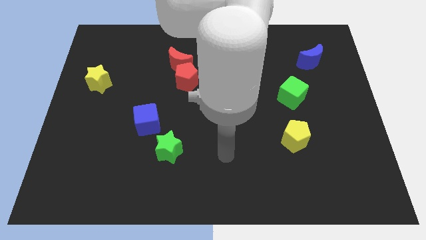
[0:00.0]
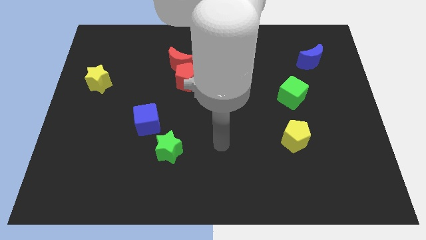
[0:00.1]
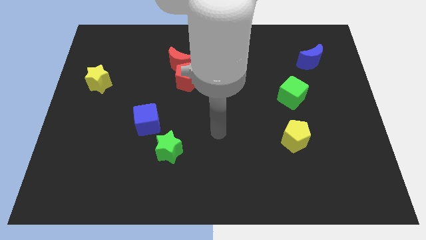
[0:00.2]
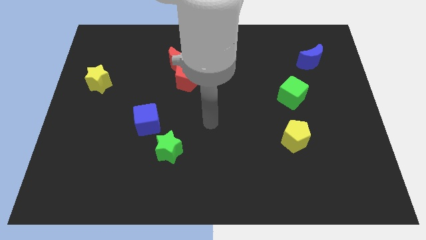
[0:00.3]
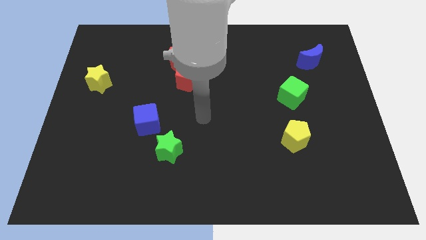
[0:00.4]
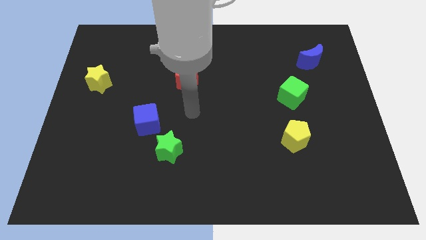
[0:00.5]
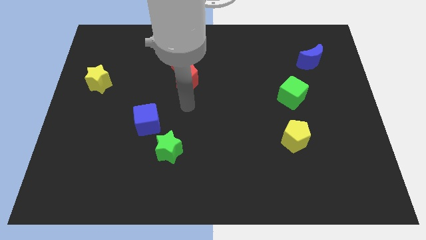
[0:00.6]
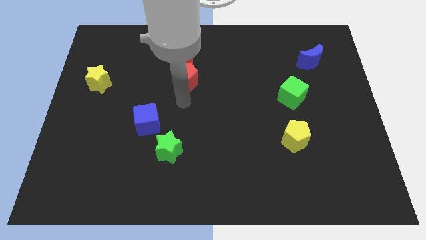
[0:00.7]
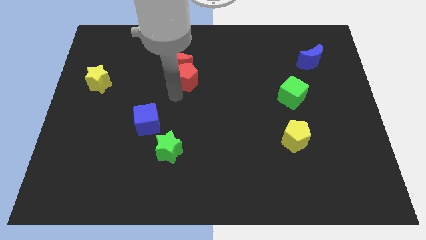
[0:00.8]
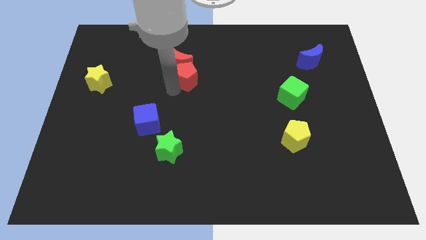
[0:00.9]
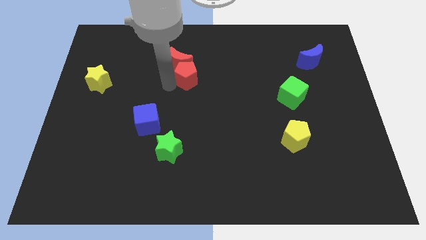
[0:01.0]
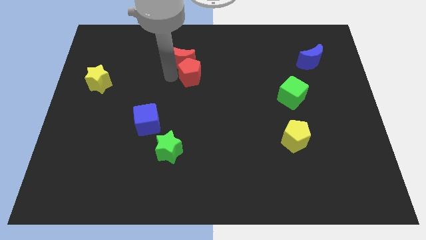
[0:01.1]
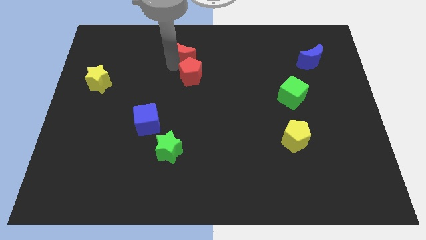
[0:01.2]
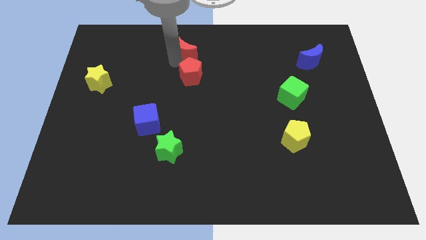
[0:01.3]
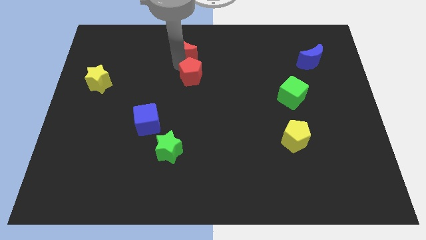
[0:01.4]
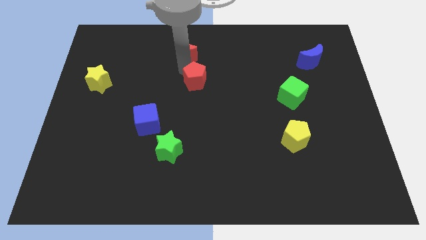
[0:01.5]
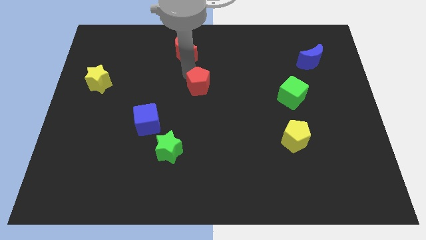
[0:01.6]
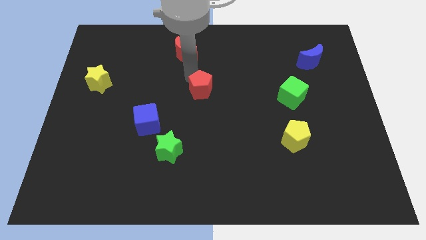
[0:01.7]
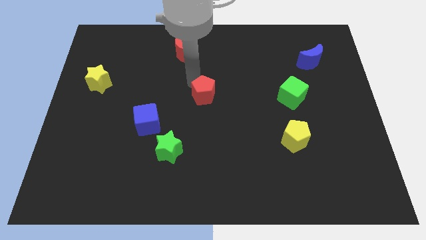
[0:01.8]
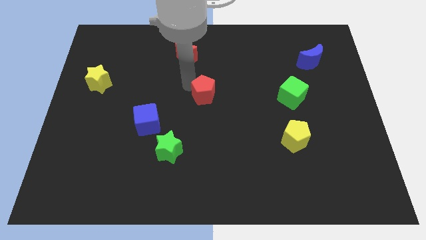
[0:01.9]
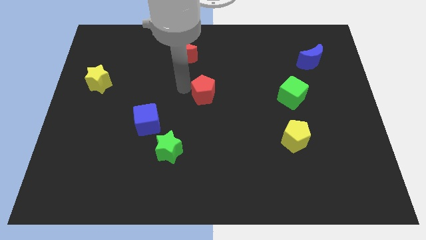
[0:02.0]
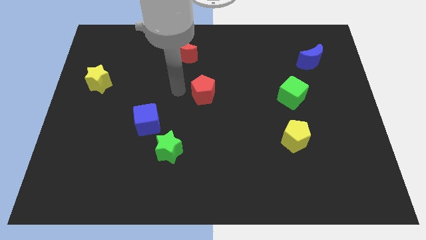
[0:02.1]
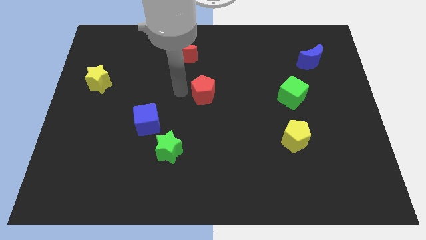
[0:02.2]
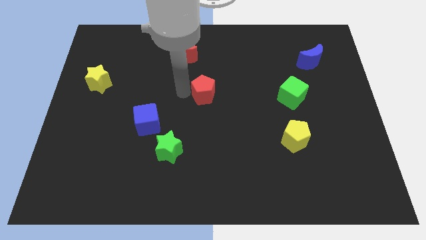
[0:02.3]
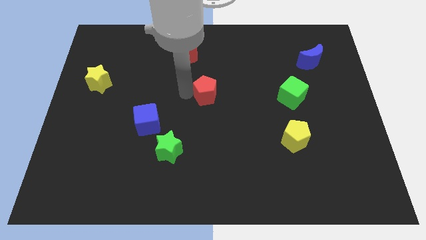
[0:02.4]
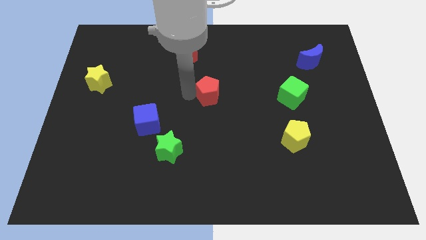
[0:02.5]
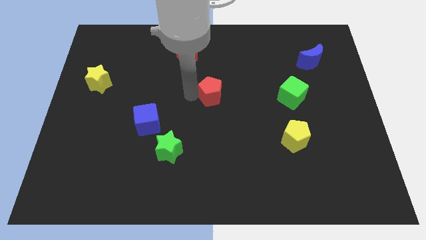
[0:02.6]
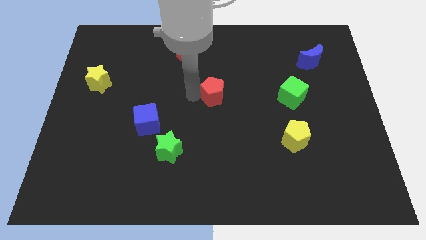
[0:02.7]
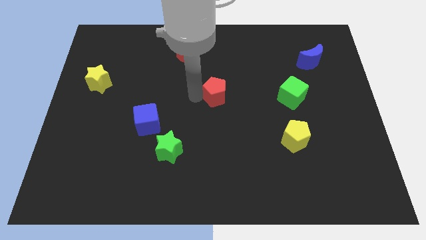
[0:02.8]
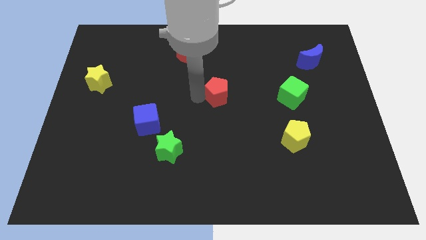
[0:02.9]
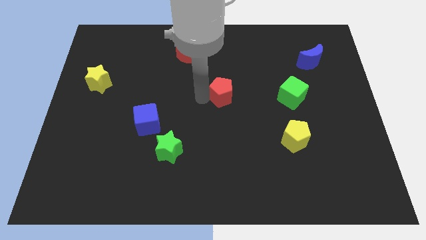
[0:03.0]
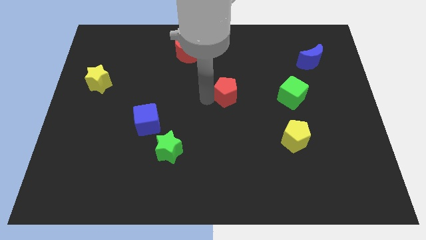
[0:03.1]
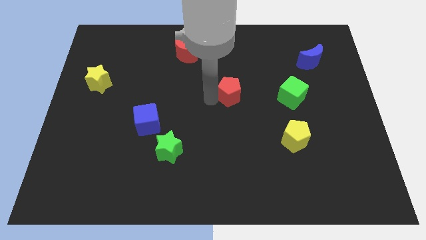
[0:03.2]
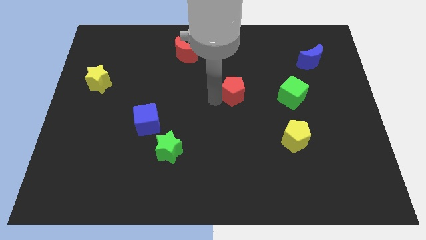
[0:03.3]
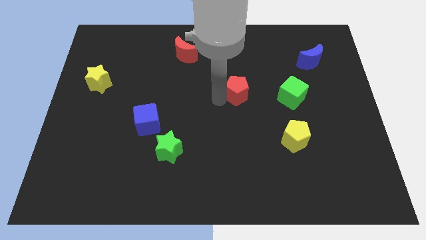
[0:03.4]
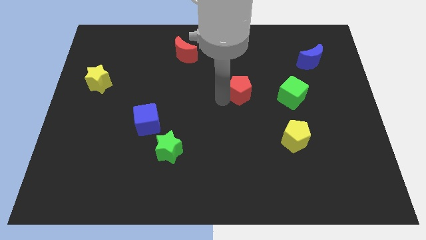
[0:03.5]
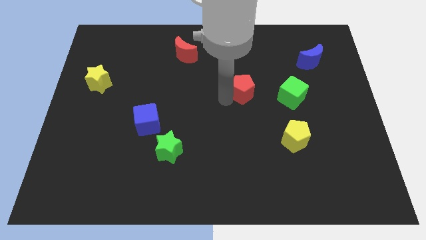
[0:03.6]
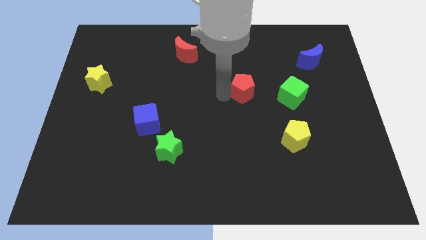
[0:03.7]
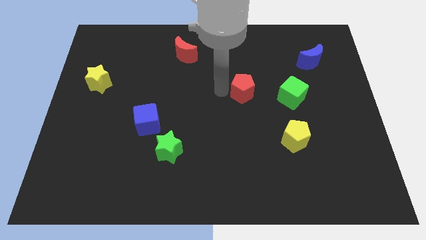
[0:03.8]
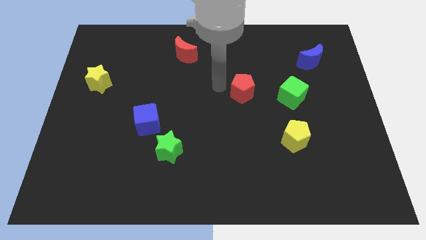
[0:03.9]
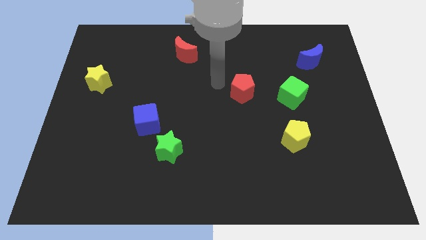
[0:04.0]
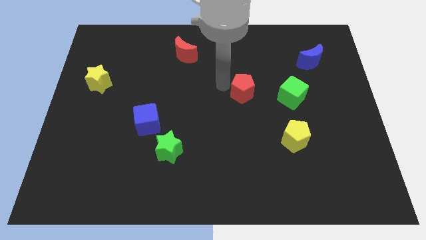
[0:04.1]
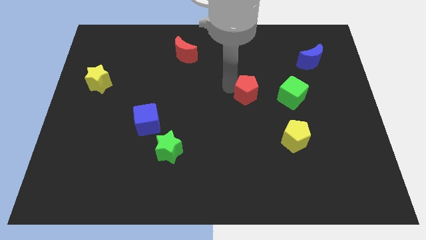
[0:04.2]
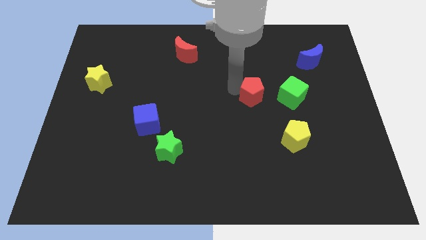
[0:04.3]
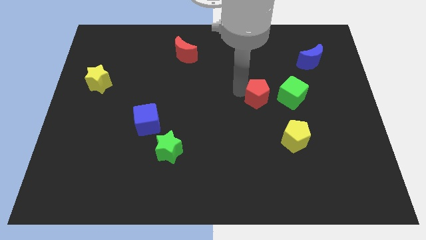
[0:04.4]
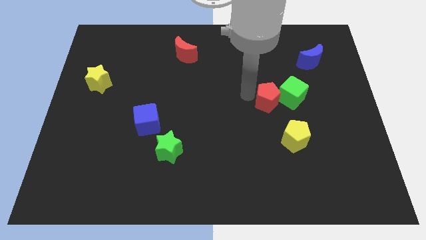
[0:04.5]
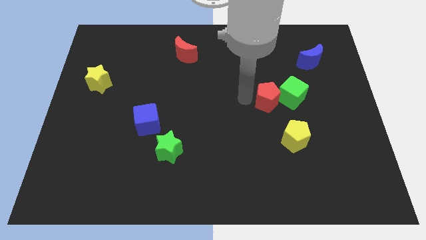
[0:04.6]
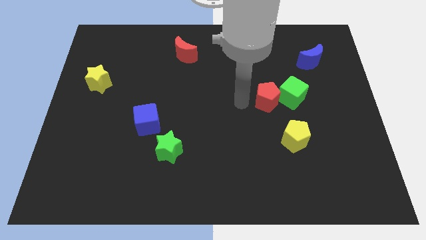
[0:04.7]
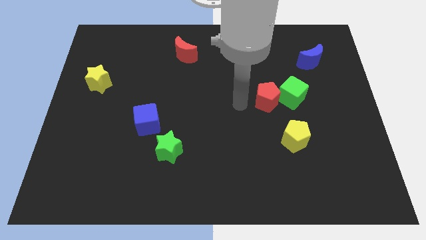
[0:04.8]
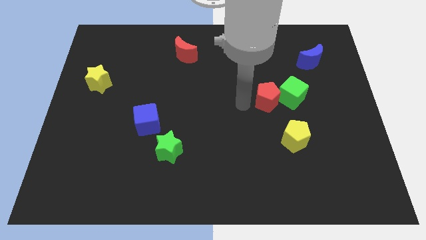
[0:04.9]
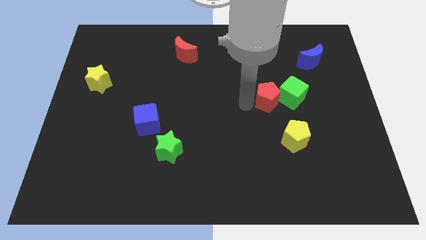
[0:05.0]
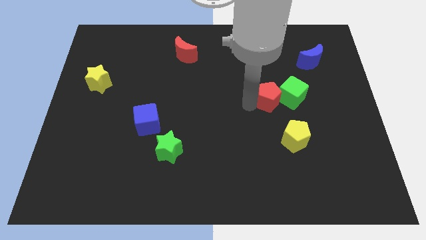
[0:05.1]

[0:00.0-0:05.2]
slide the red pentagon to the green cube

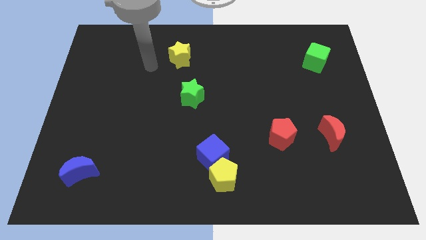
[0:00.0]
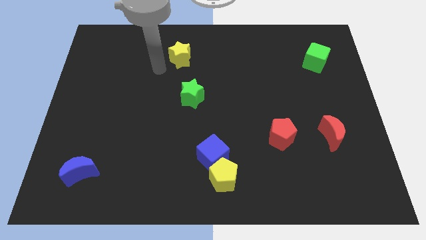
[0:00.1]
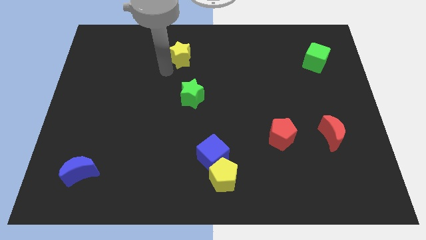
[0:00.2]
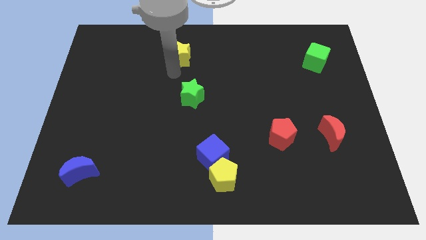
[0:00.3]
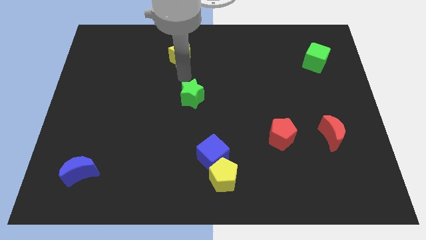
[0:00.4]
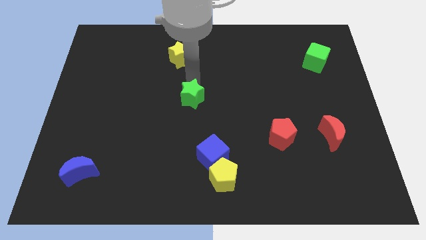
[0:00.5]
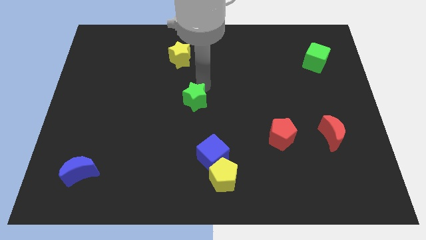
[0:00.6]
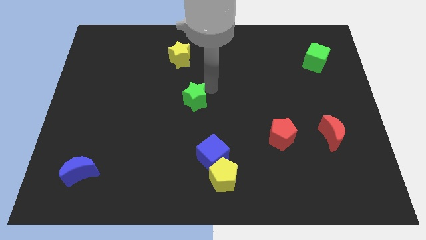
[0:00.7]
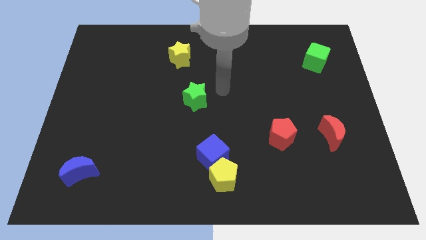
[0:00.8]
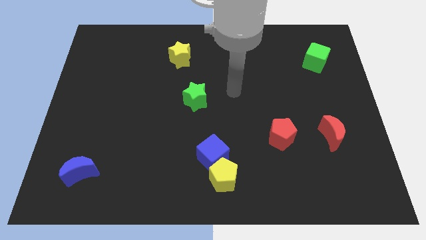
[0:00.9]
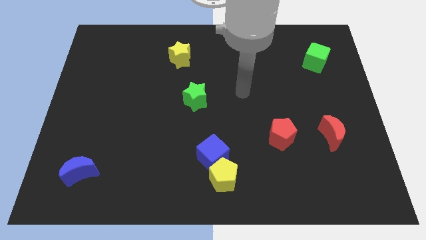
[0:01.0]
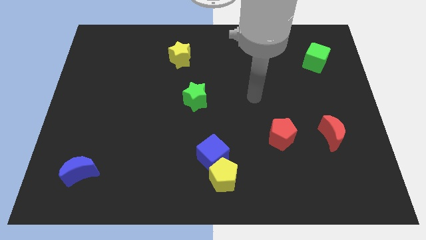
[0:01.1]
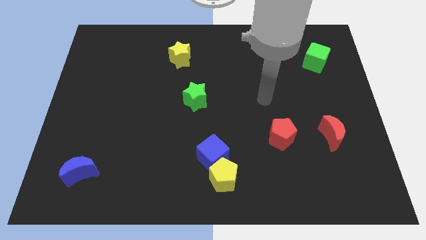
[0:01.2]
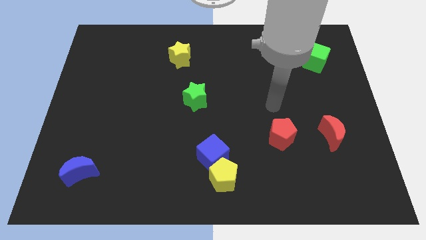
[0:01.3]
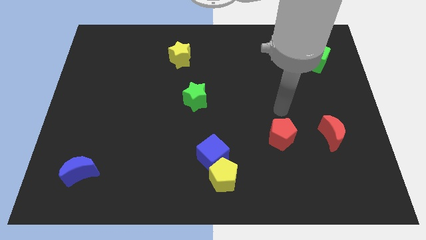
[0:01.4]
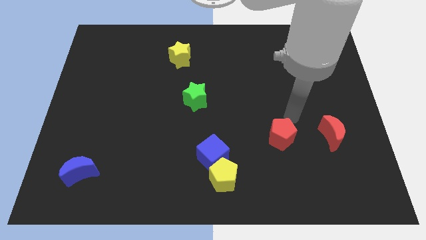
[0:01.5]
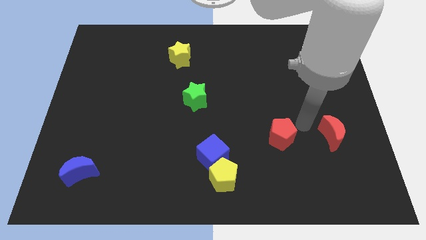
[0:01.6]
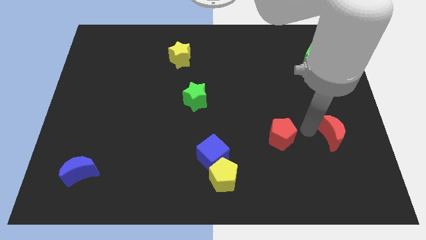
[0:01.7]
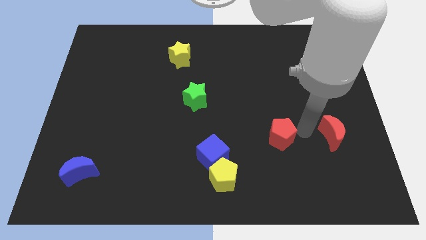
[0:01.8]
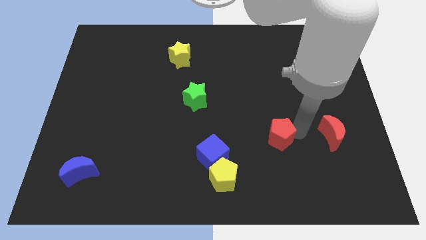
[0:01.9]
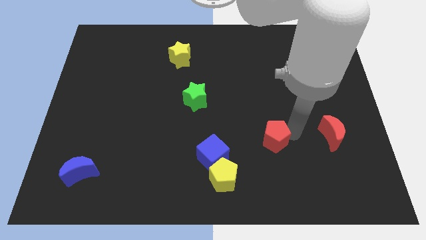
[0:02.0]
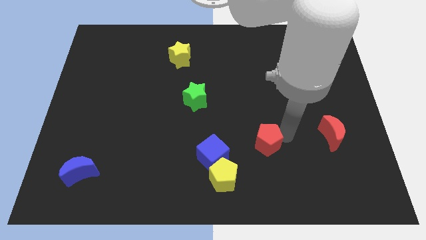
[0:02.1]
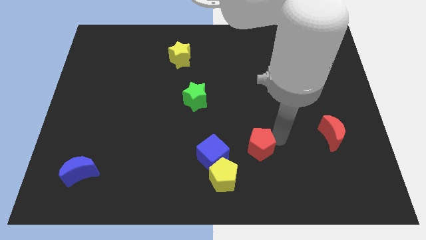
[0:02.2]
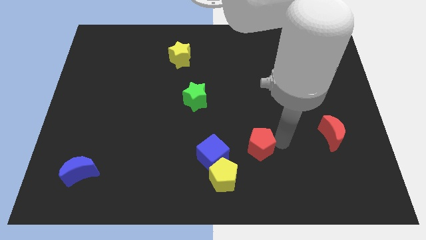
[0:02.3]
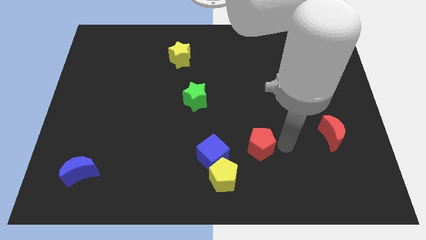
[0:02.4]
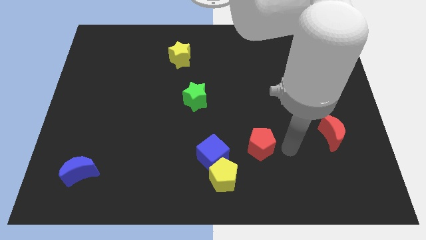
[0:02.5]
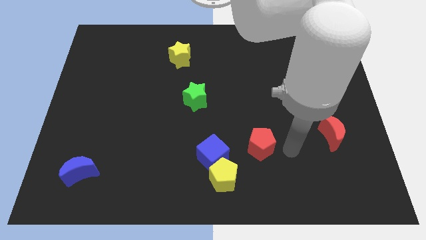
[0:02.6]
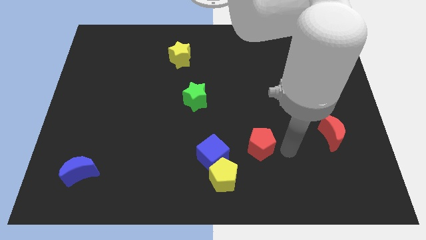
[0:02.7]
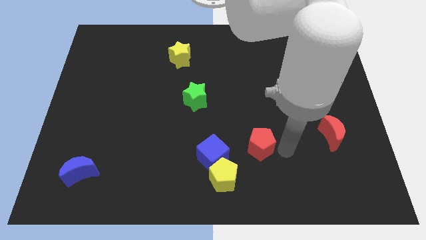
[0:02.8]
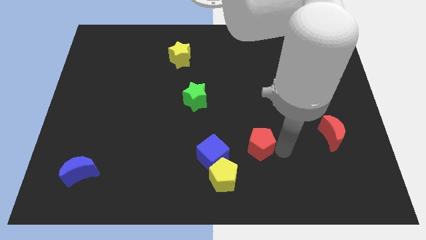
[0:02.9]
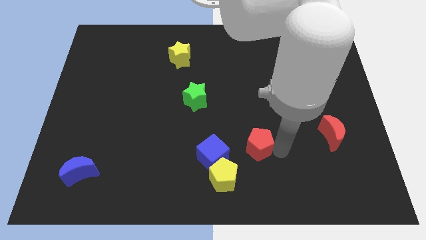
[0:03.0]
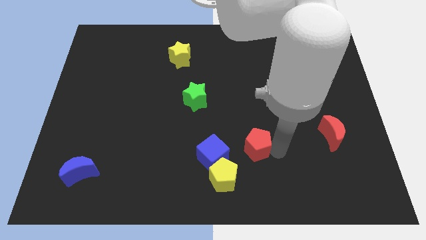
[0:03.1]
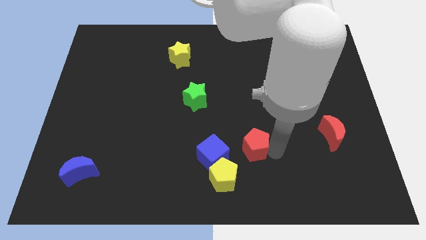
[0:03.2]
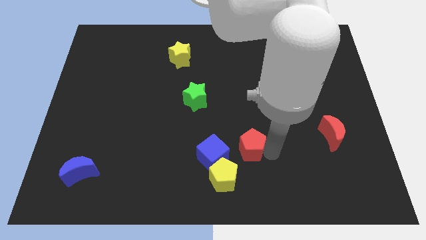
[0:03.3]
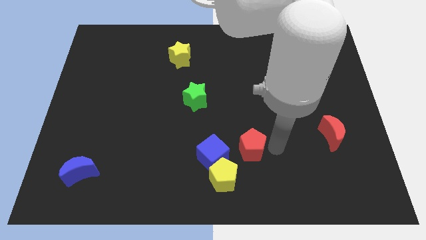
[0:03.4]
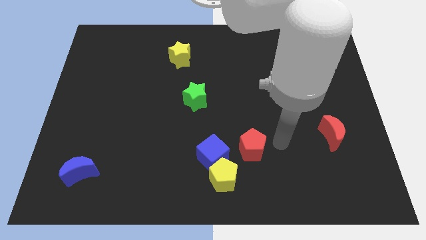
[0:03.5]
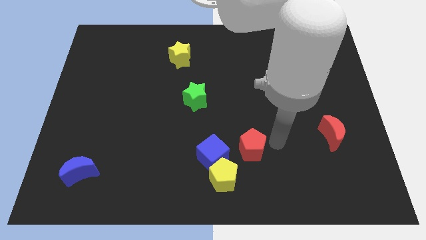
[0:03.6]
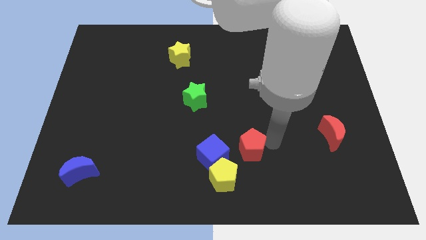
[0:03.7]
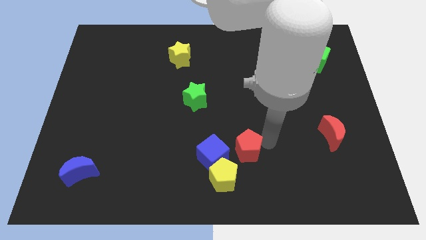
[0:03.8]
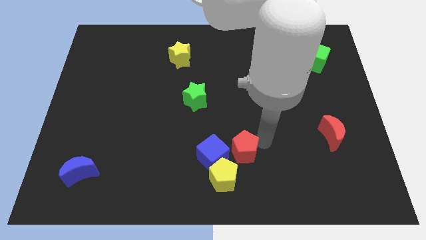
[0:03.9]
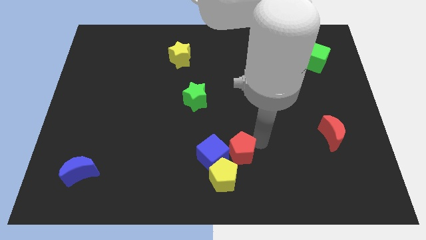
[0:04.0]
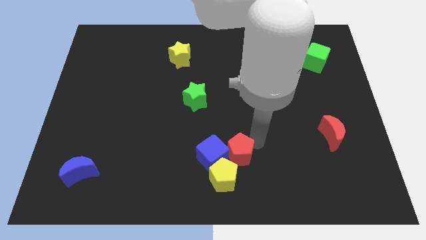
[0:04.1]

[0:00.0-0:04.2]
move the red pentagon towards the blue cube
